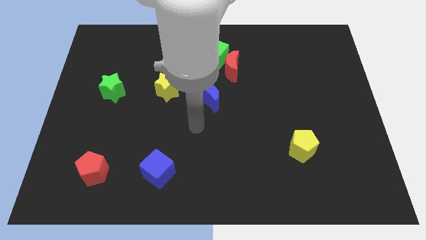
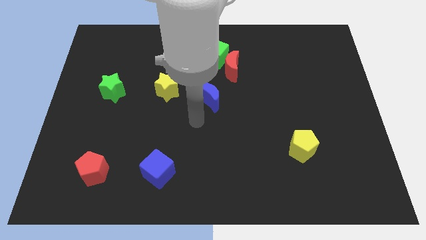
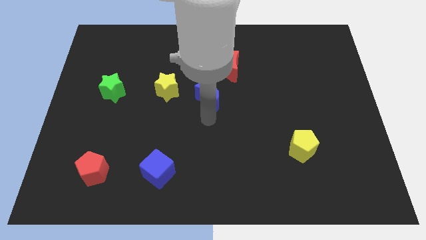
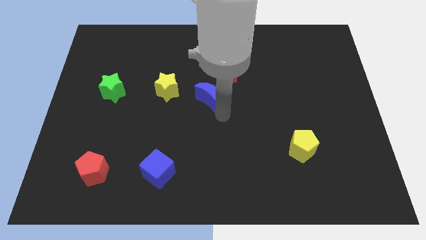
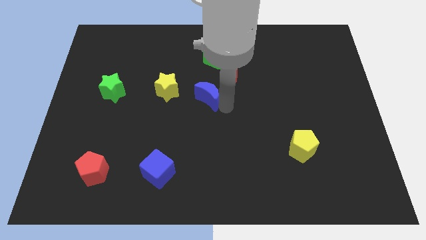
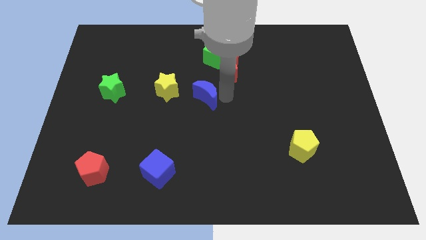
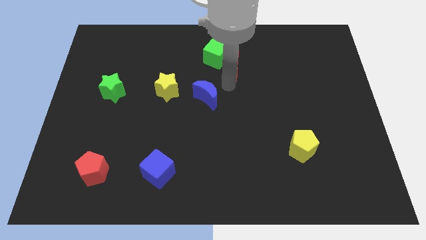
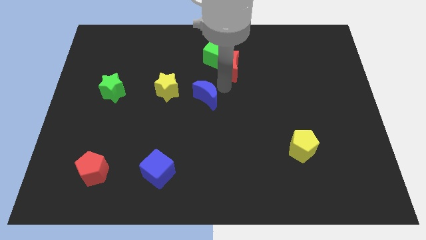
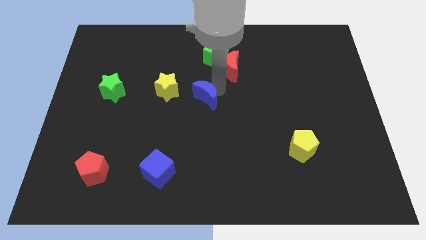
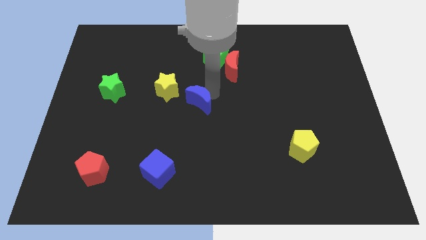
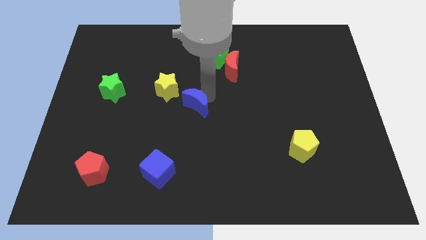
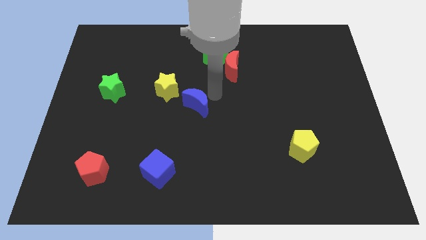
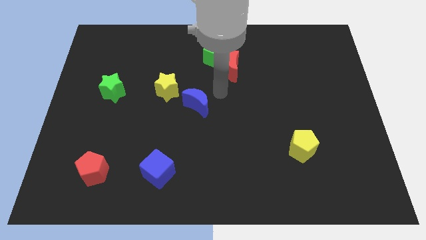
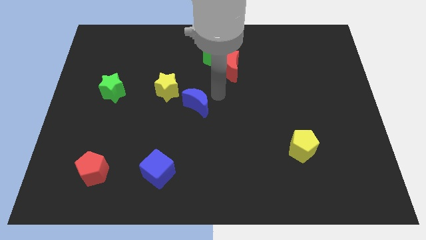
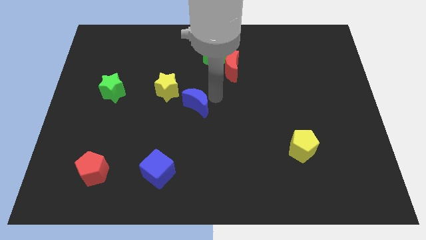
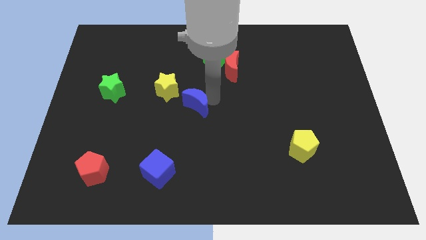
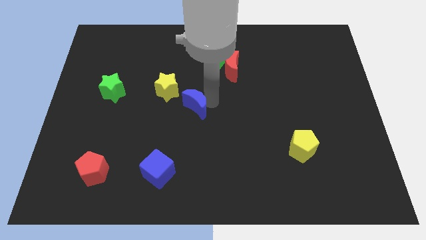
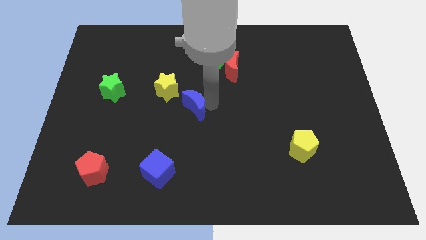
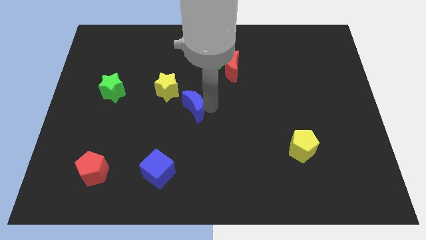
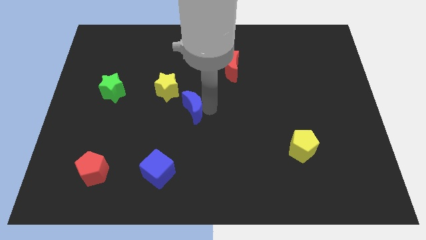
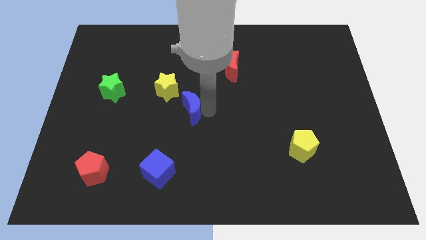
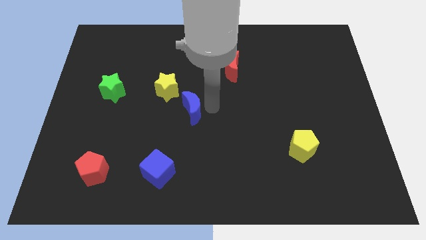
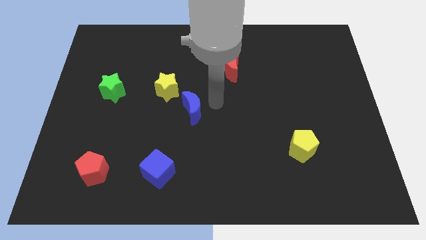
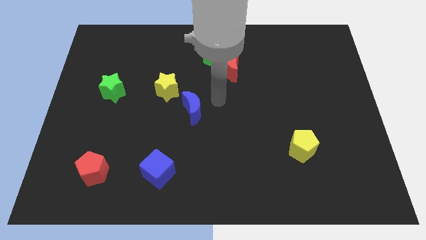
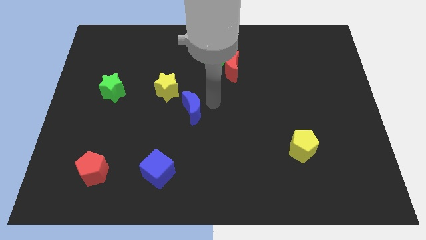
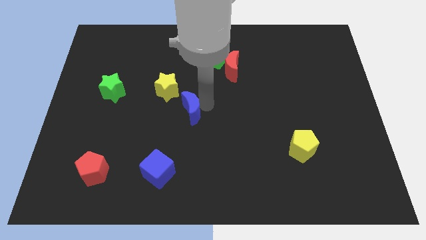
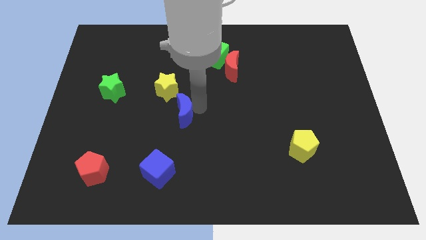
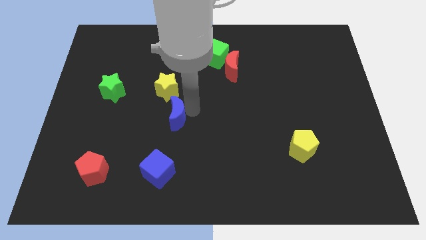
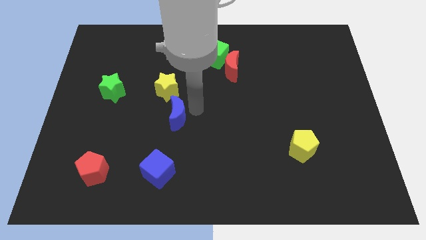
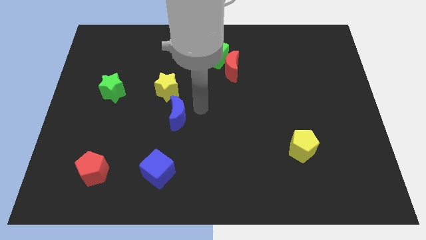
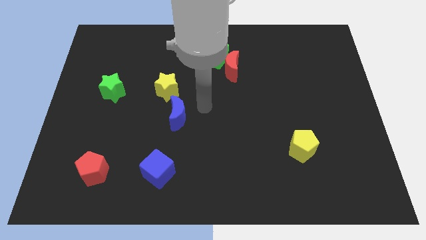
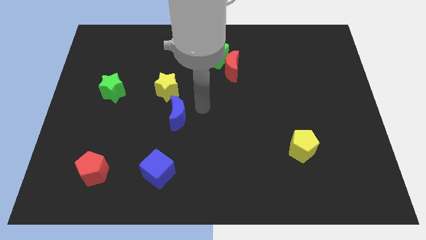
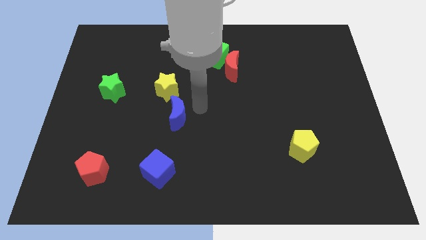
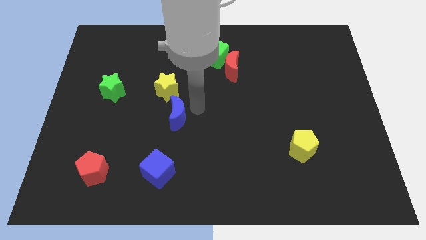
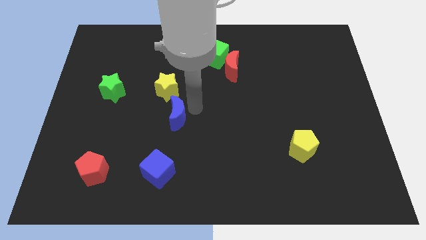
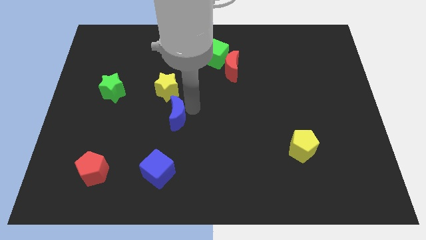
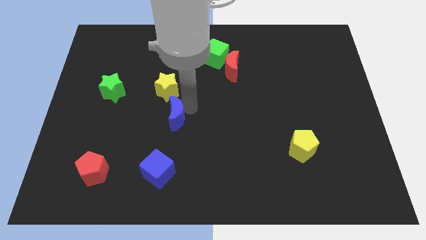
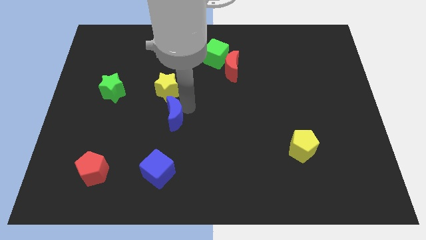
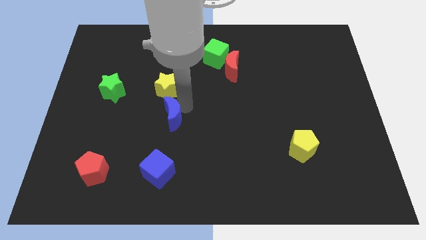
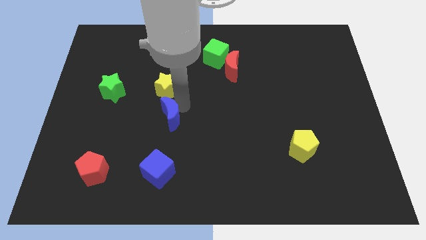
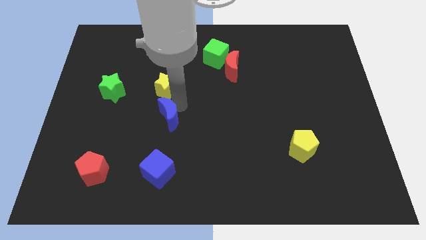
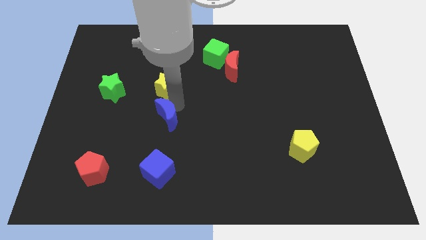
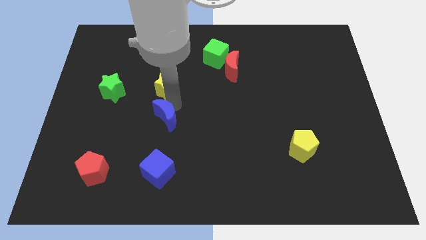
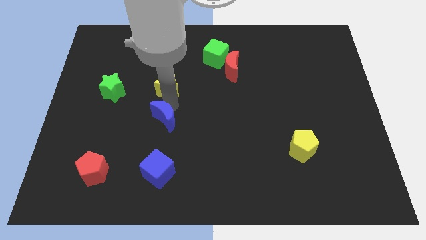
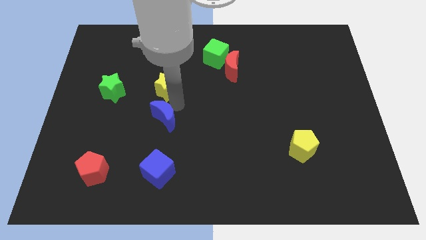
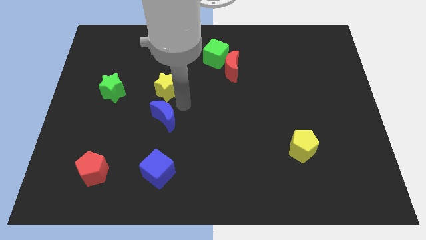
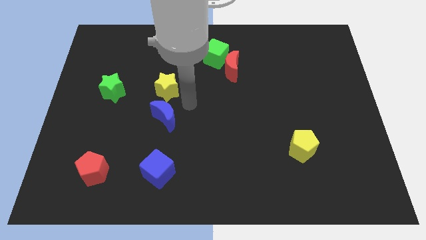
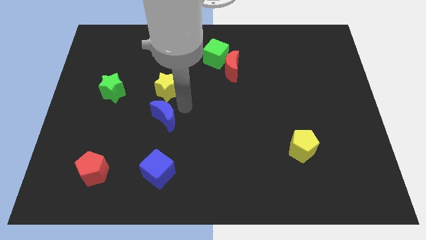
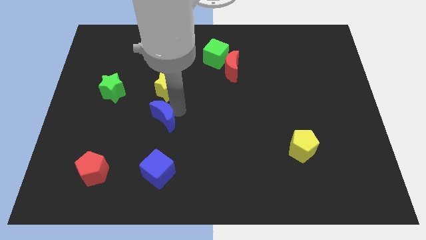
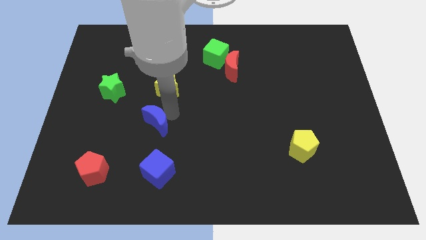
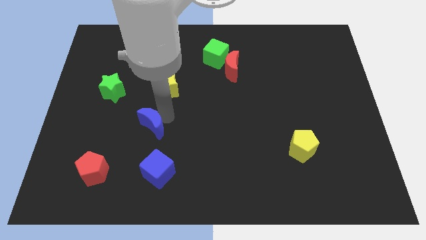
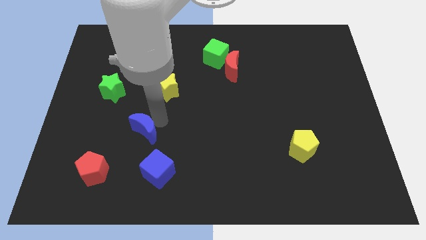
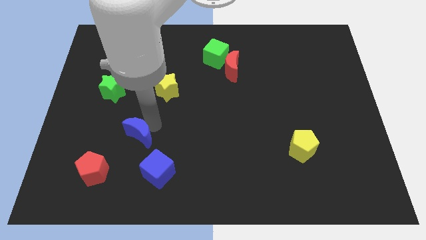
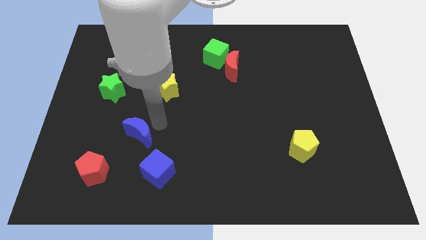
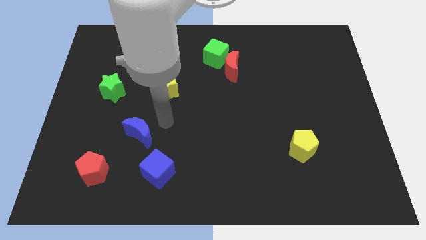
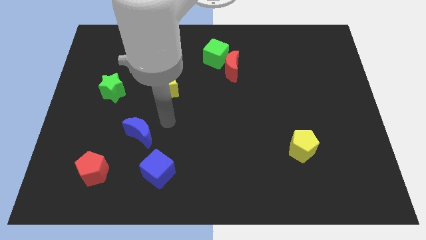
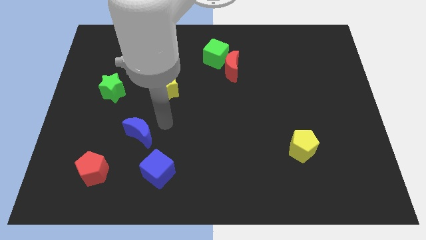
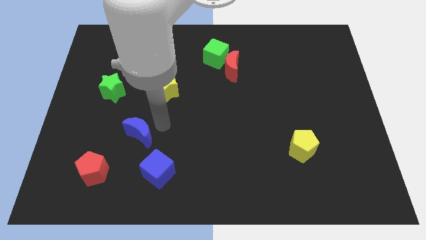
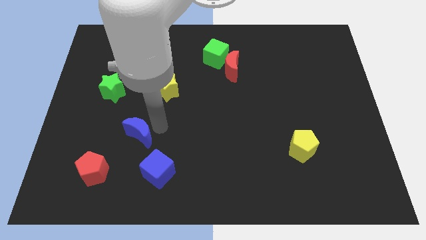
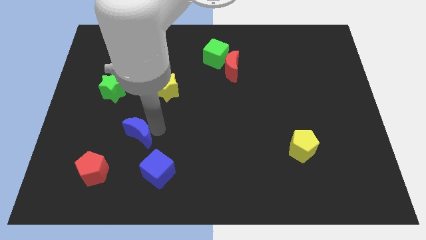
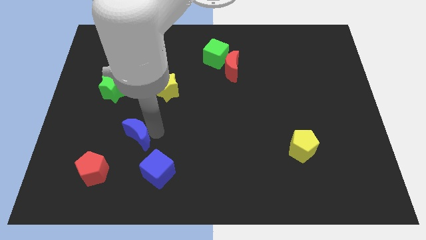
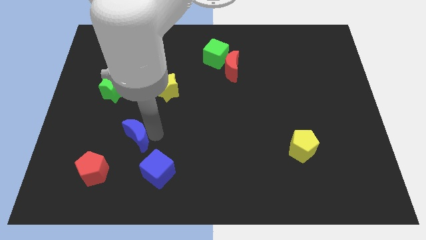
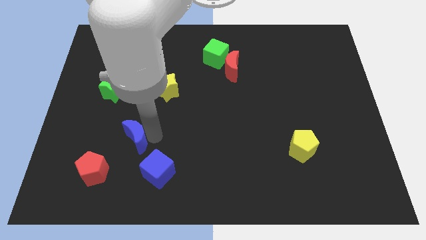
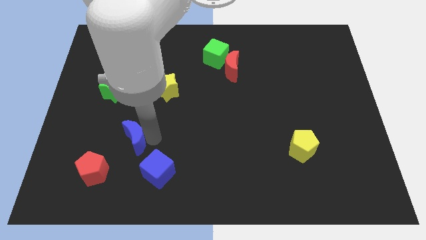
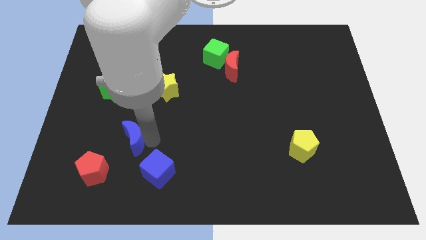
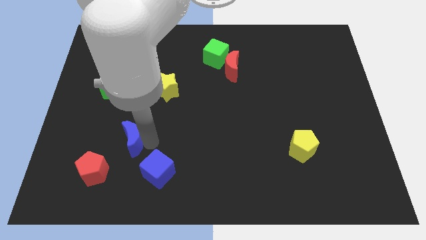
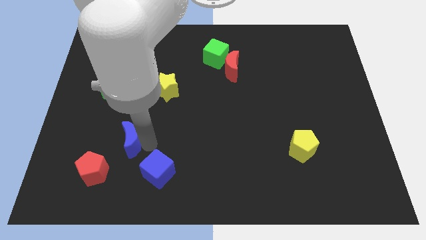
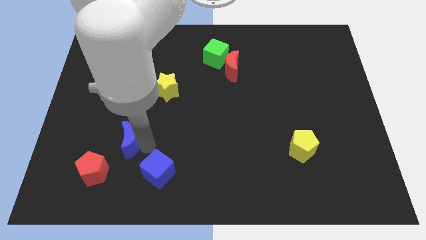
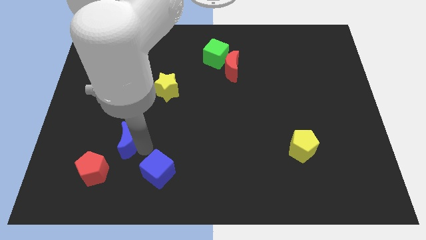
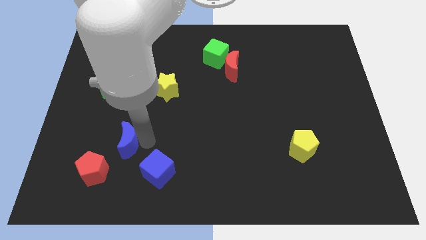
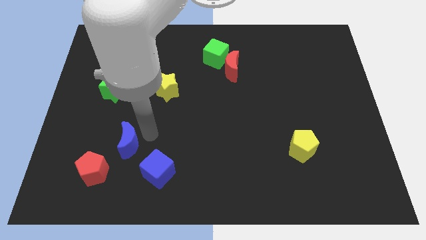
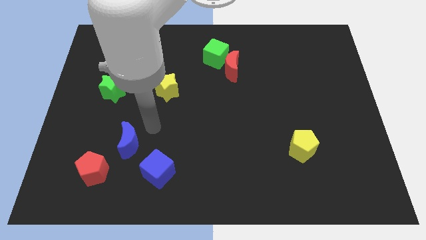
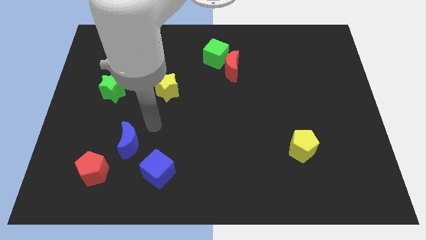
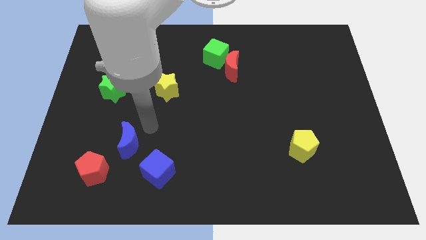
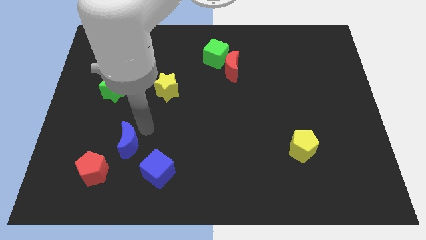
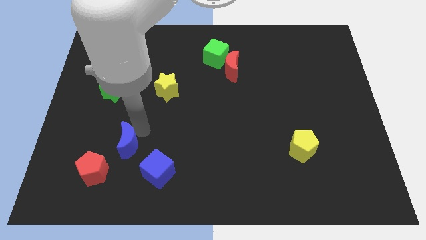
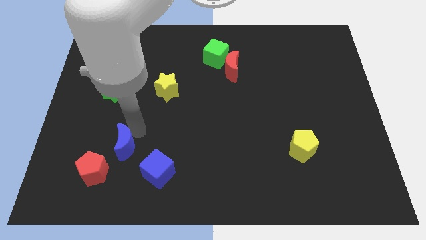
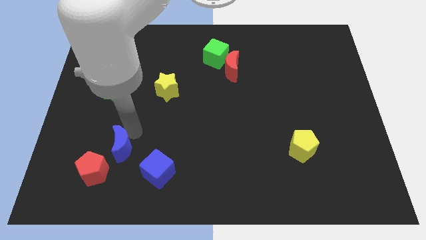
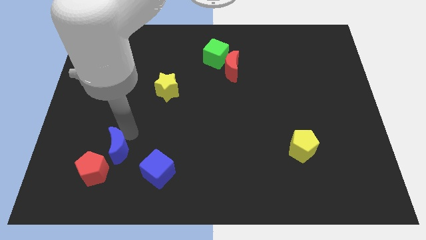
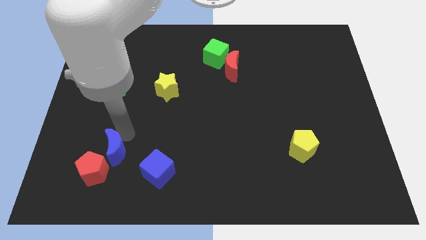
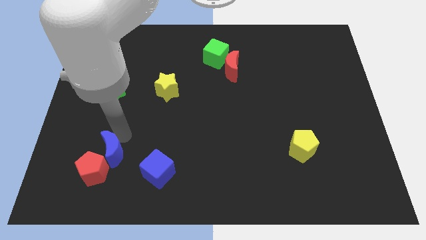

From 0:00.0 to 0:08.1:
put the blue moon next to the red pentagon
